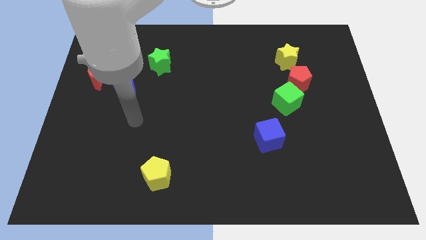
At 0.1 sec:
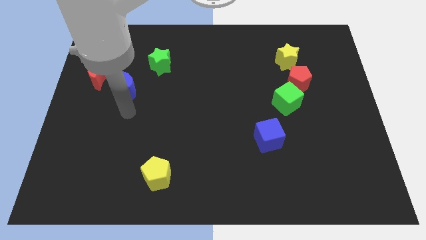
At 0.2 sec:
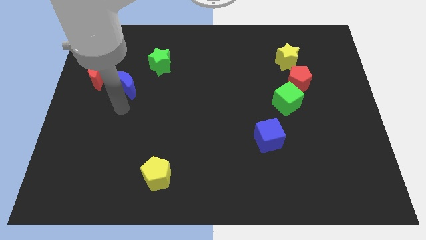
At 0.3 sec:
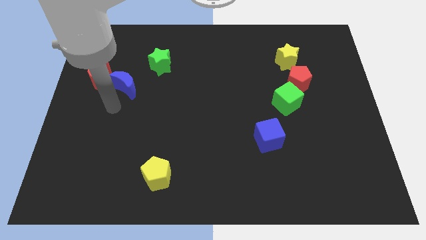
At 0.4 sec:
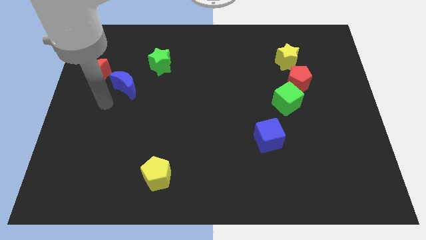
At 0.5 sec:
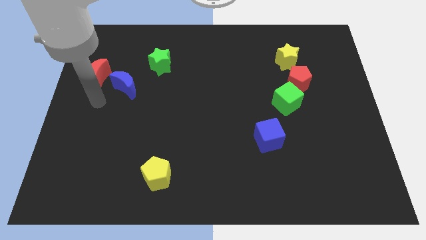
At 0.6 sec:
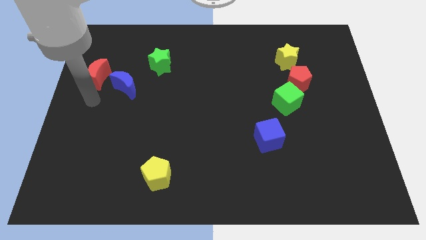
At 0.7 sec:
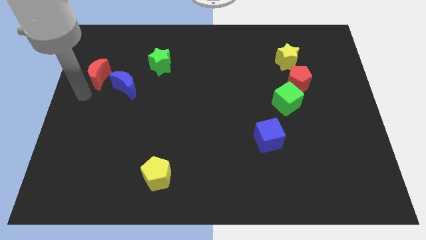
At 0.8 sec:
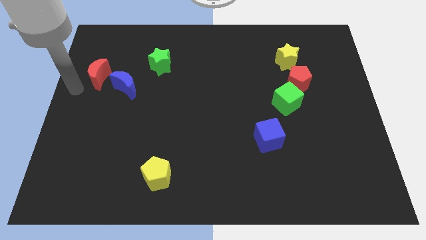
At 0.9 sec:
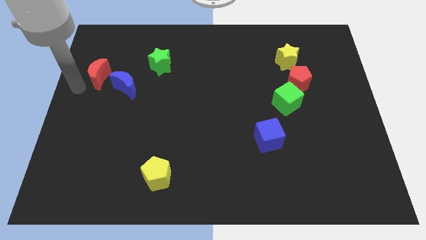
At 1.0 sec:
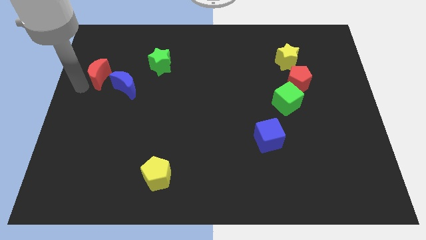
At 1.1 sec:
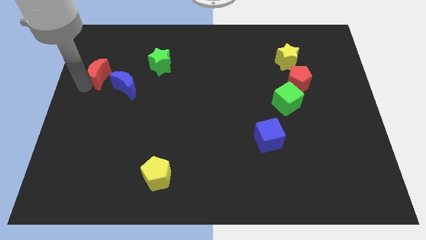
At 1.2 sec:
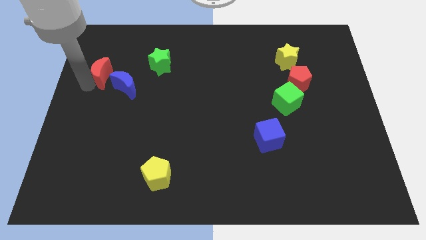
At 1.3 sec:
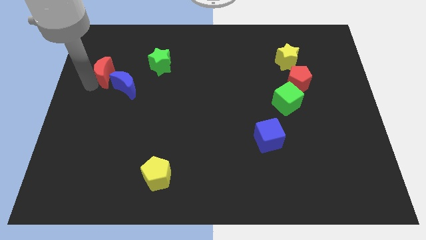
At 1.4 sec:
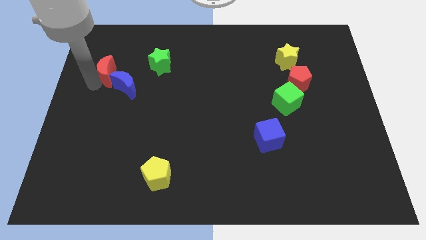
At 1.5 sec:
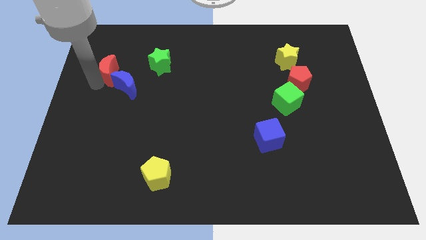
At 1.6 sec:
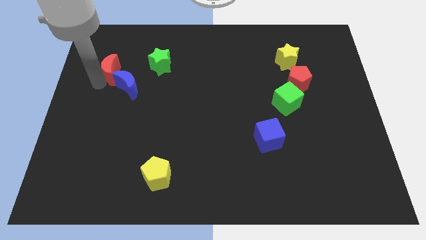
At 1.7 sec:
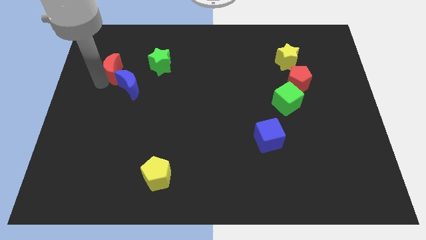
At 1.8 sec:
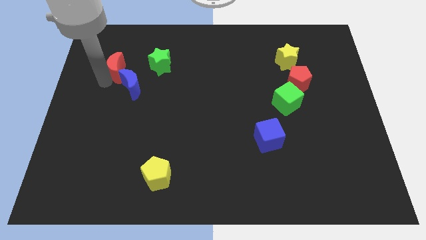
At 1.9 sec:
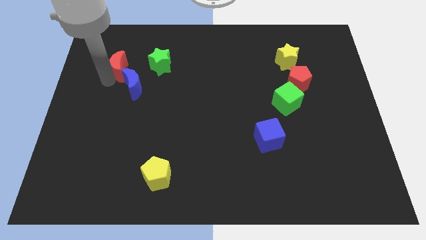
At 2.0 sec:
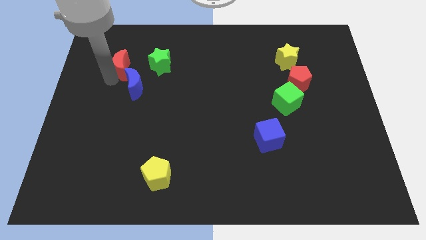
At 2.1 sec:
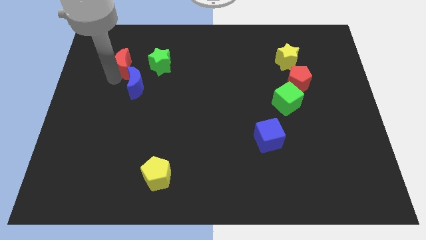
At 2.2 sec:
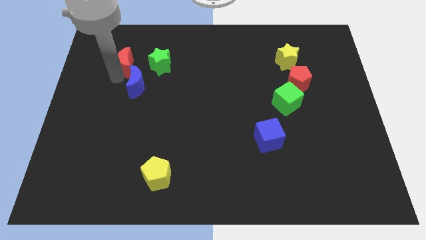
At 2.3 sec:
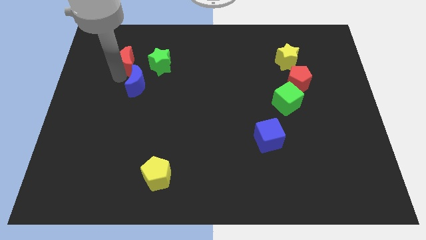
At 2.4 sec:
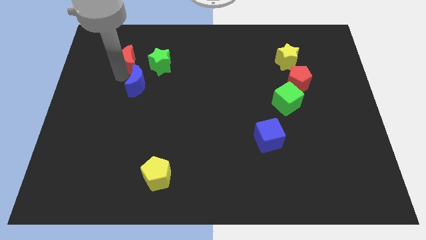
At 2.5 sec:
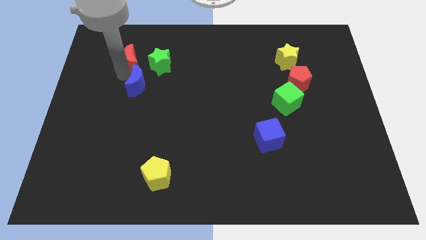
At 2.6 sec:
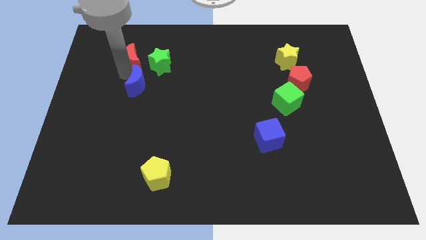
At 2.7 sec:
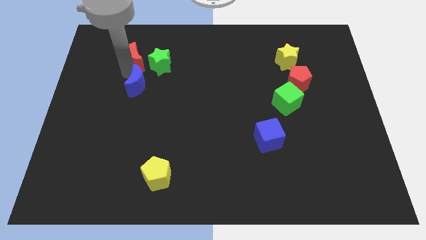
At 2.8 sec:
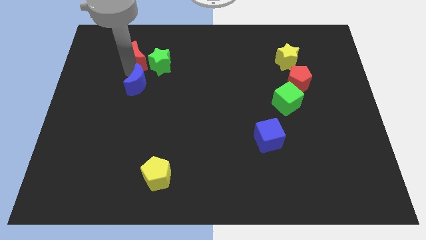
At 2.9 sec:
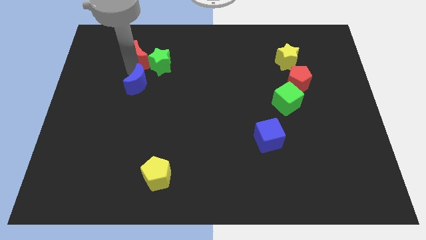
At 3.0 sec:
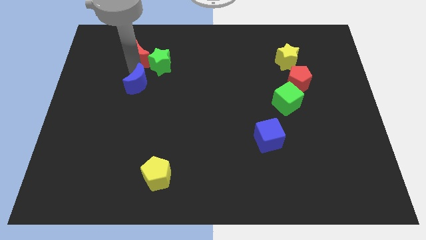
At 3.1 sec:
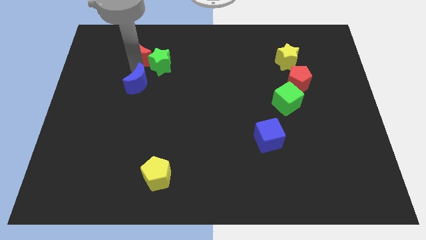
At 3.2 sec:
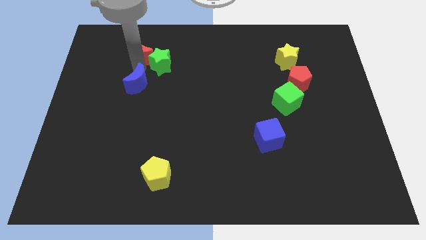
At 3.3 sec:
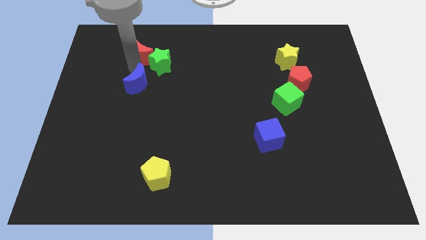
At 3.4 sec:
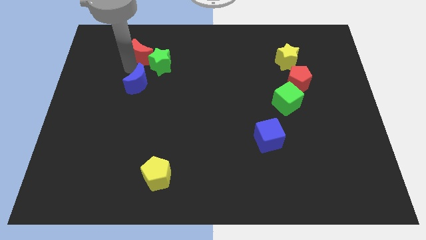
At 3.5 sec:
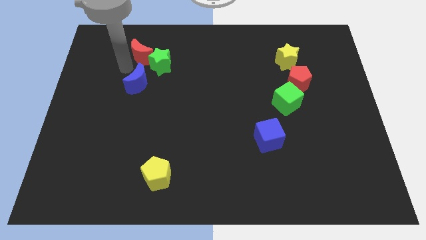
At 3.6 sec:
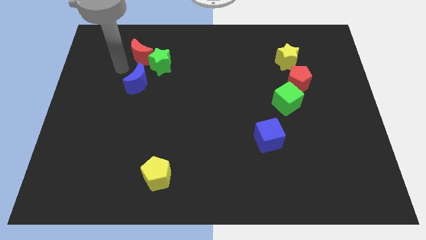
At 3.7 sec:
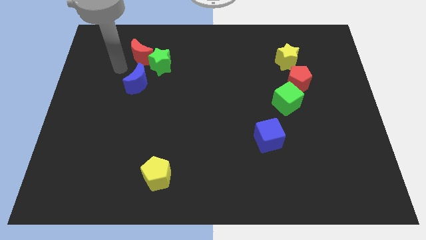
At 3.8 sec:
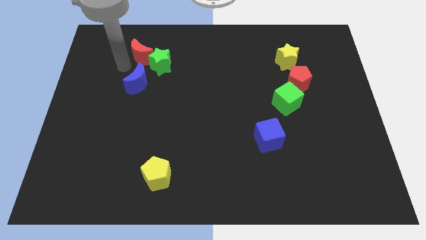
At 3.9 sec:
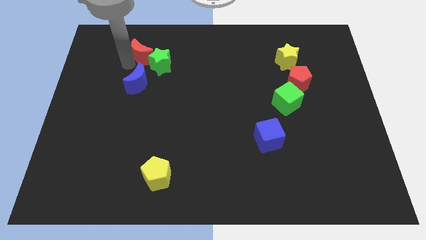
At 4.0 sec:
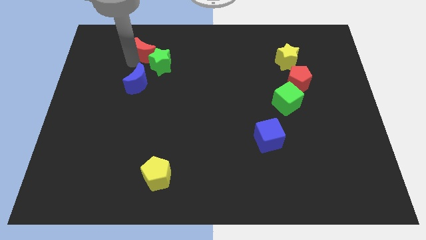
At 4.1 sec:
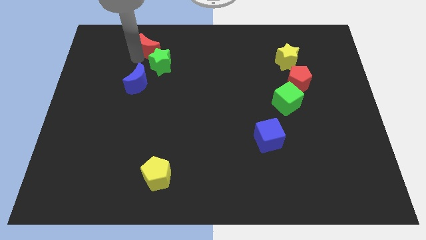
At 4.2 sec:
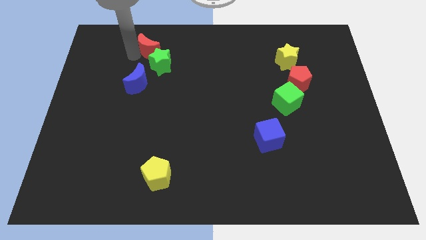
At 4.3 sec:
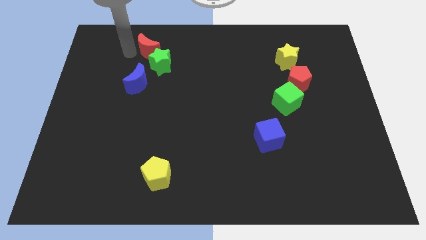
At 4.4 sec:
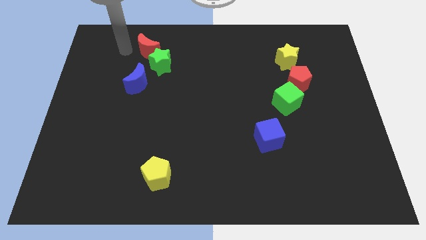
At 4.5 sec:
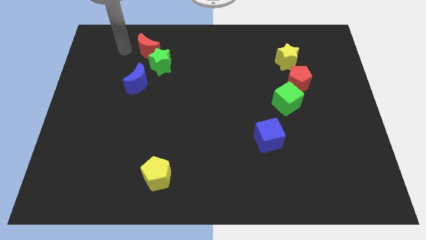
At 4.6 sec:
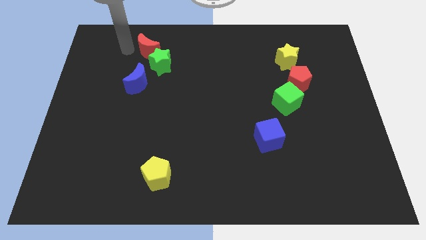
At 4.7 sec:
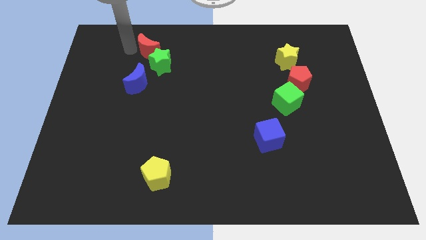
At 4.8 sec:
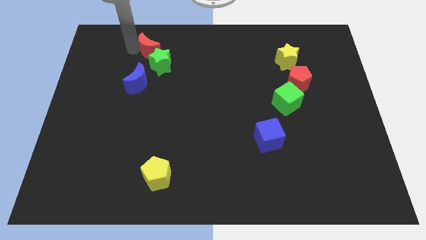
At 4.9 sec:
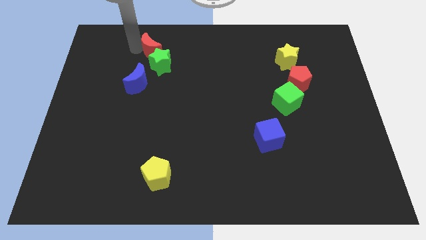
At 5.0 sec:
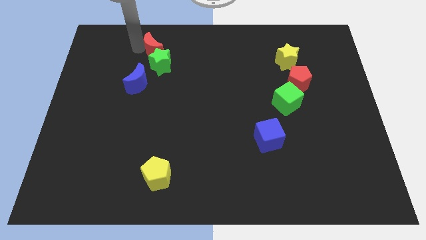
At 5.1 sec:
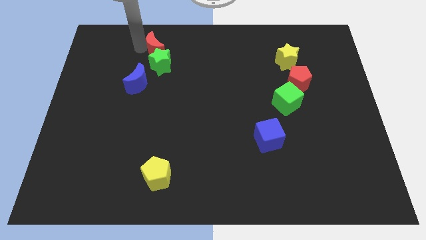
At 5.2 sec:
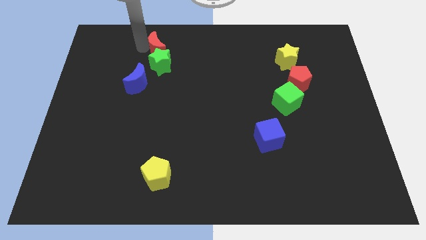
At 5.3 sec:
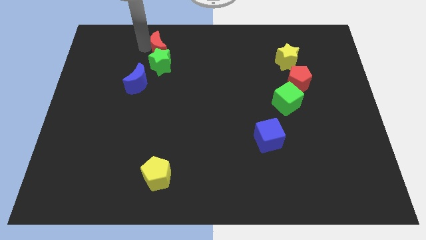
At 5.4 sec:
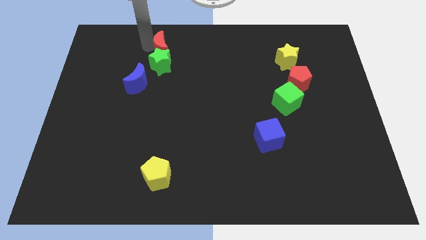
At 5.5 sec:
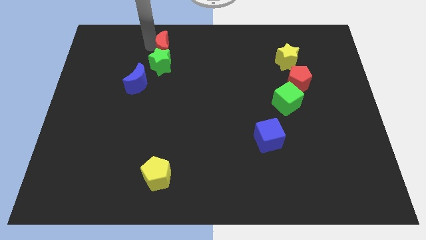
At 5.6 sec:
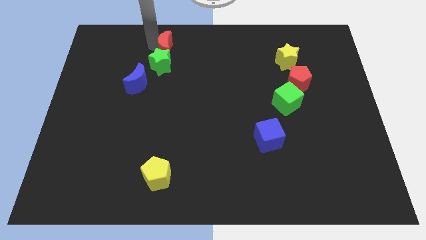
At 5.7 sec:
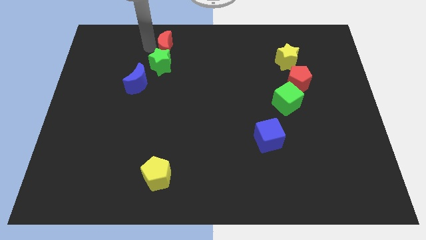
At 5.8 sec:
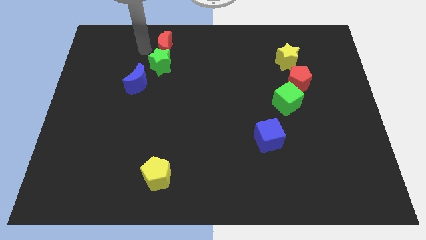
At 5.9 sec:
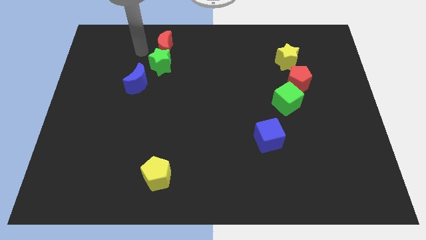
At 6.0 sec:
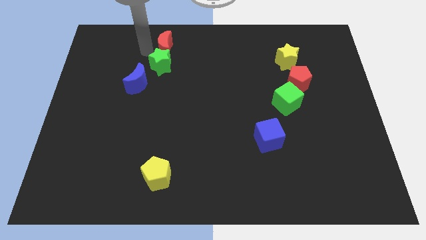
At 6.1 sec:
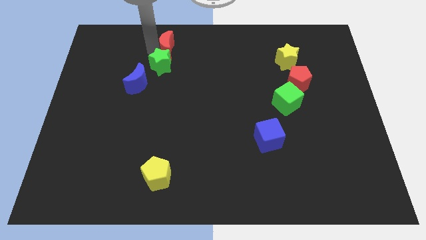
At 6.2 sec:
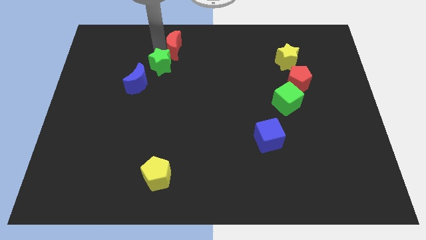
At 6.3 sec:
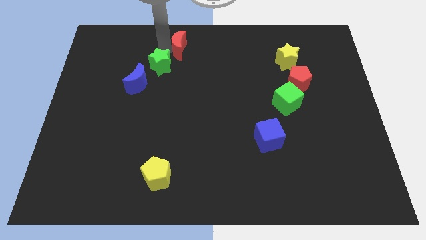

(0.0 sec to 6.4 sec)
put the red moon to the towards your base
